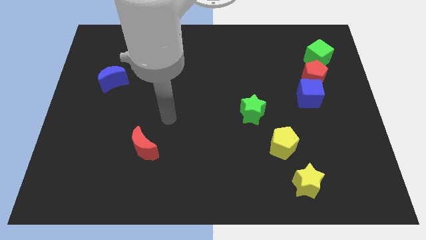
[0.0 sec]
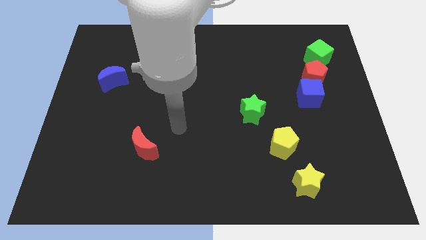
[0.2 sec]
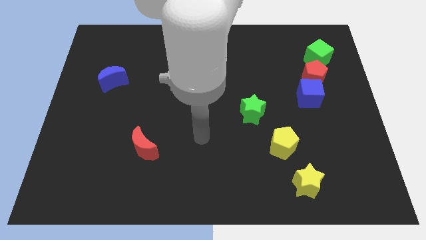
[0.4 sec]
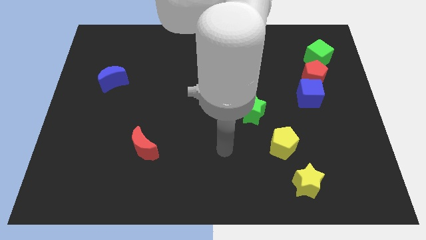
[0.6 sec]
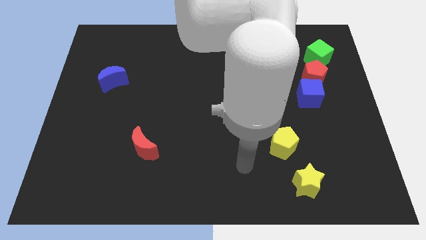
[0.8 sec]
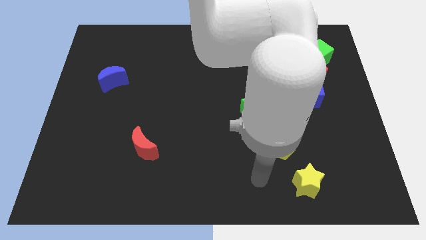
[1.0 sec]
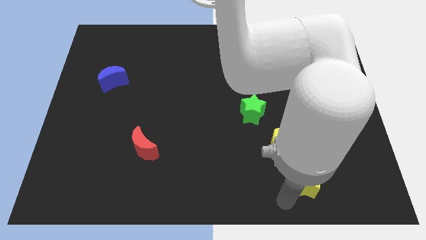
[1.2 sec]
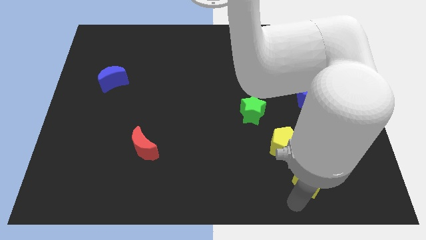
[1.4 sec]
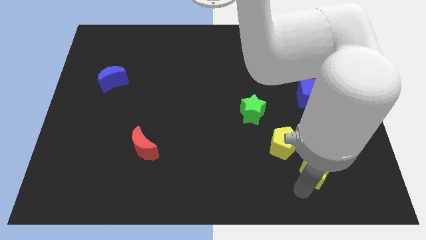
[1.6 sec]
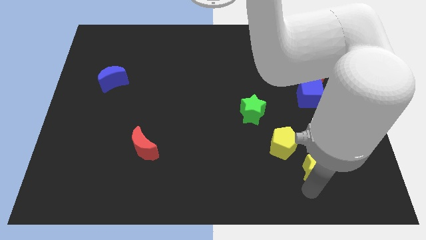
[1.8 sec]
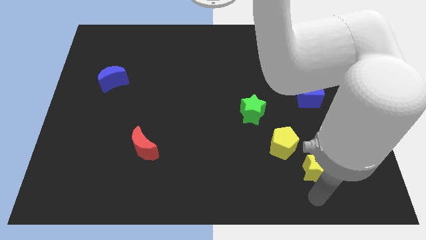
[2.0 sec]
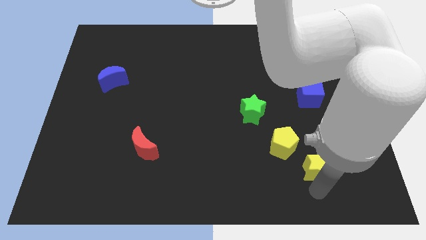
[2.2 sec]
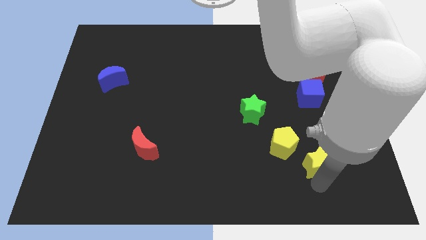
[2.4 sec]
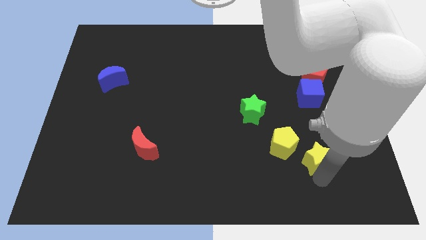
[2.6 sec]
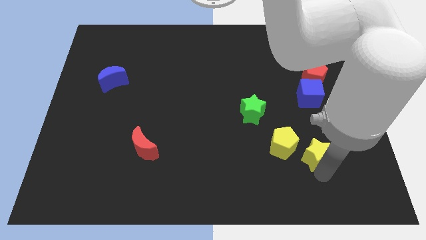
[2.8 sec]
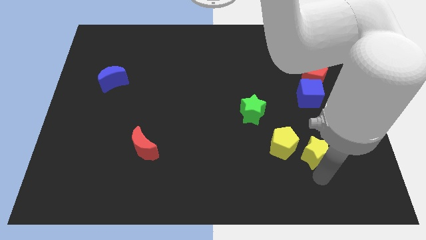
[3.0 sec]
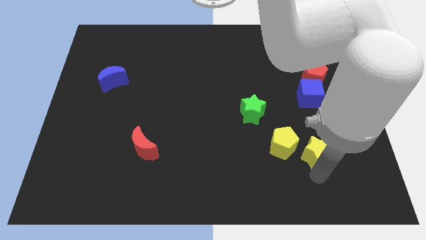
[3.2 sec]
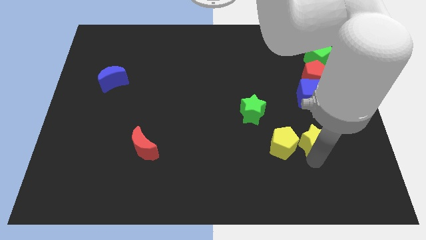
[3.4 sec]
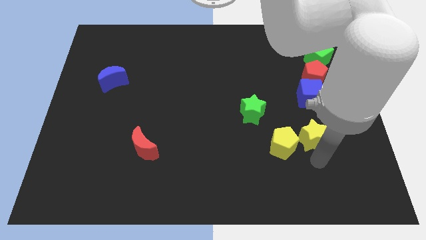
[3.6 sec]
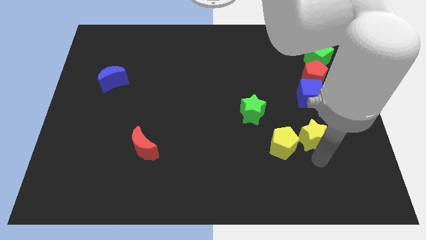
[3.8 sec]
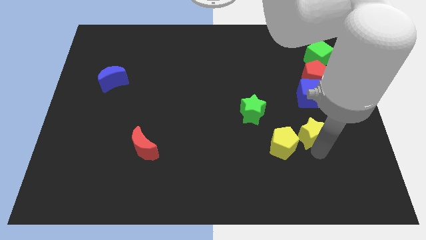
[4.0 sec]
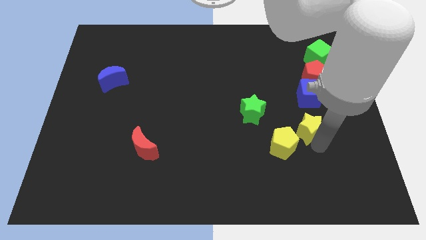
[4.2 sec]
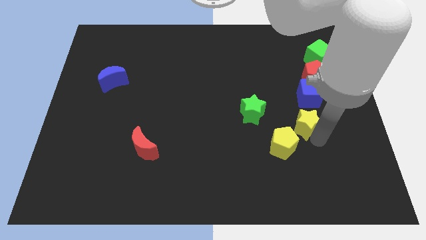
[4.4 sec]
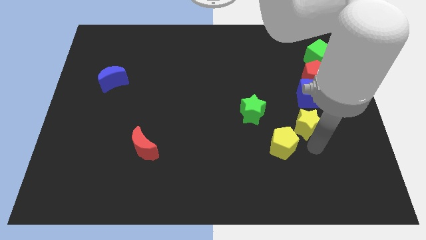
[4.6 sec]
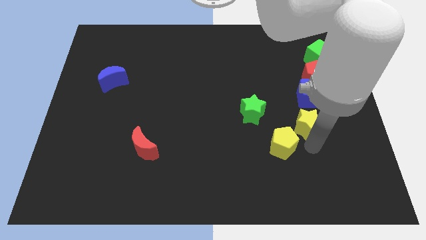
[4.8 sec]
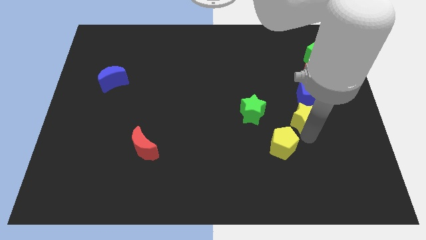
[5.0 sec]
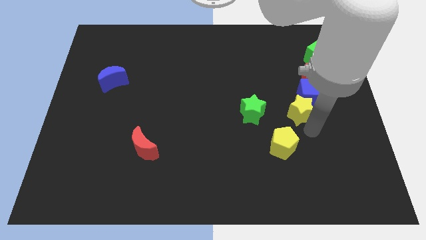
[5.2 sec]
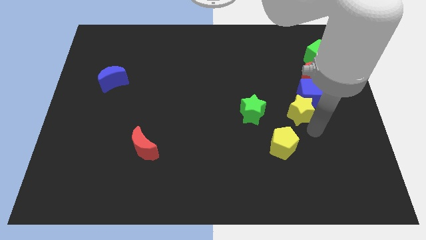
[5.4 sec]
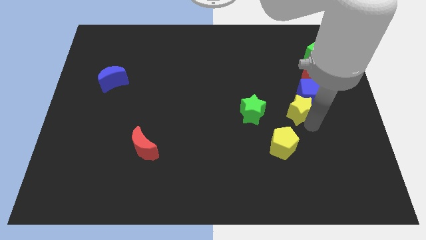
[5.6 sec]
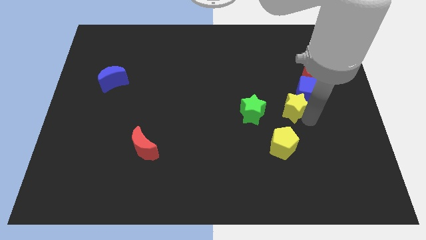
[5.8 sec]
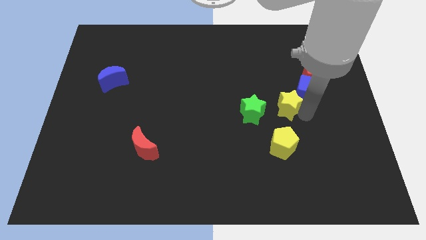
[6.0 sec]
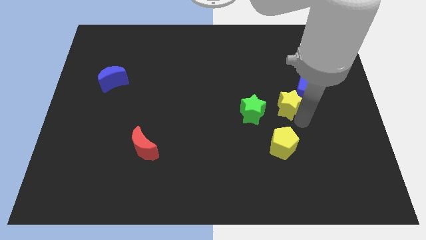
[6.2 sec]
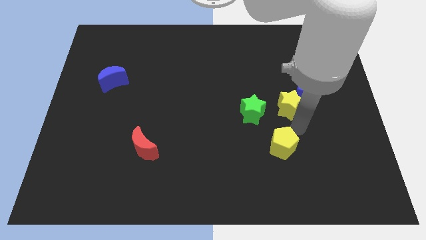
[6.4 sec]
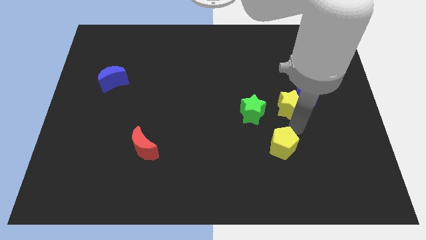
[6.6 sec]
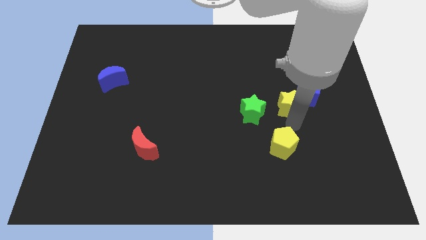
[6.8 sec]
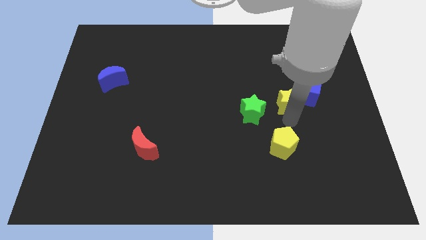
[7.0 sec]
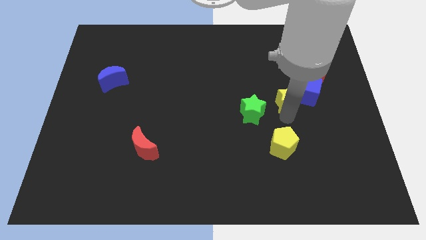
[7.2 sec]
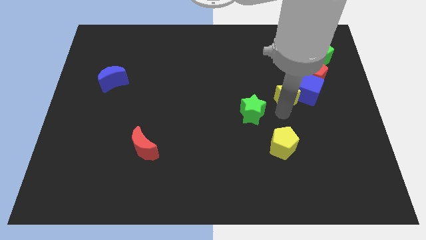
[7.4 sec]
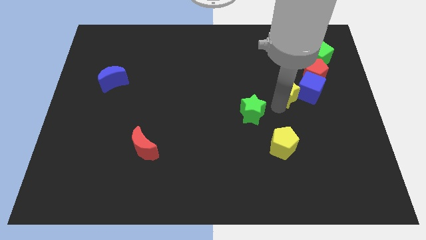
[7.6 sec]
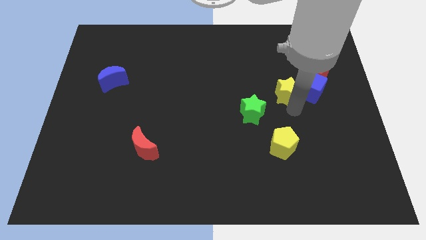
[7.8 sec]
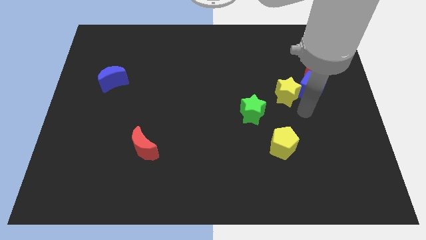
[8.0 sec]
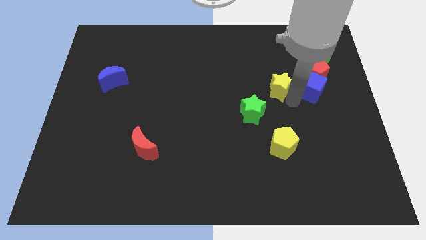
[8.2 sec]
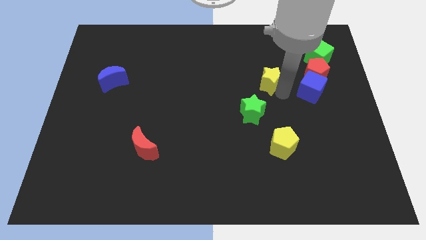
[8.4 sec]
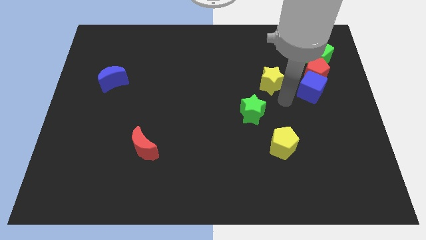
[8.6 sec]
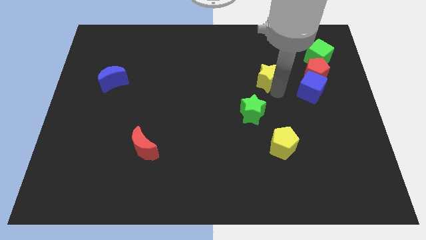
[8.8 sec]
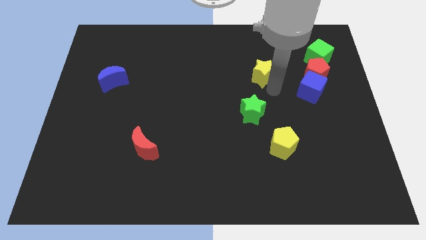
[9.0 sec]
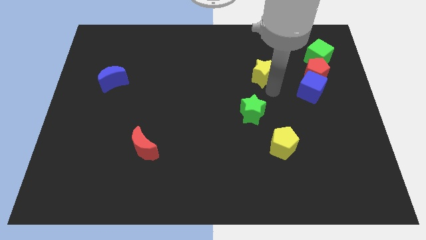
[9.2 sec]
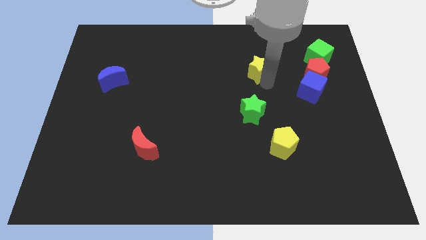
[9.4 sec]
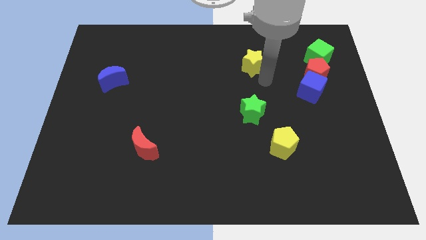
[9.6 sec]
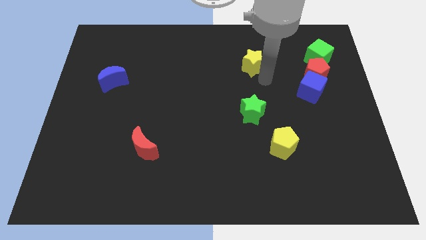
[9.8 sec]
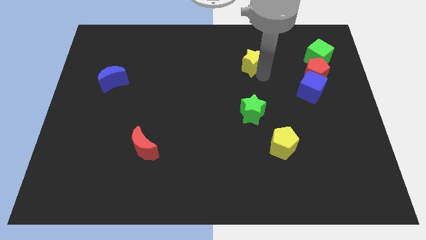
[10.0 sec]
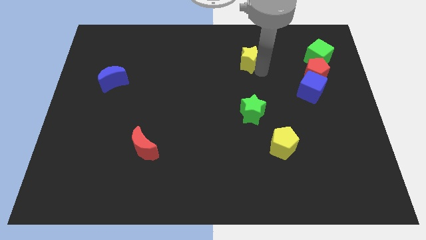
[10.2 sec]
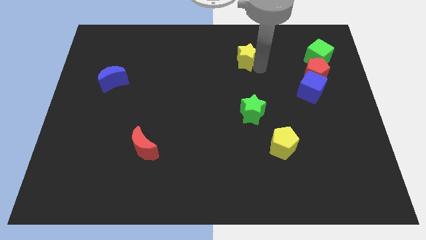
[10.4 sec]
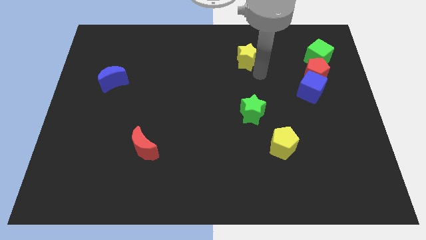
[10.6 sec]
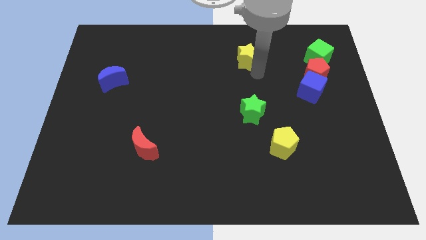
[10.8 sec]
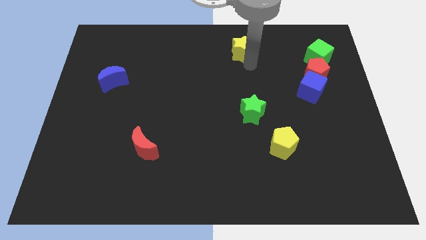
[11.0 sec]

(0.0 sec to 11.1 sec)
put the yellow star to the towards your base
